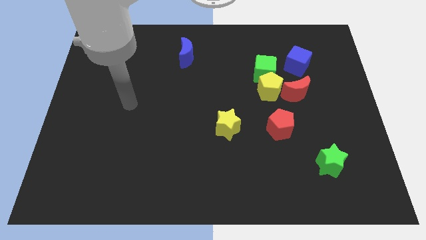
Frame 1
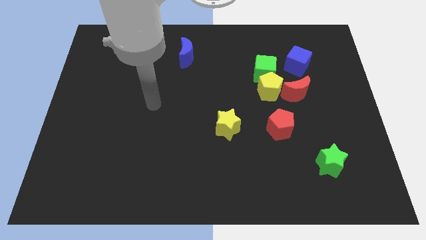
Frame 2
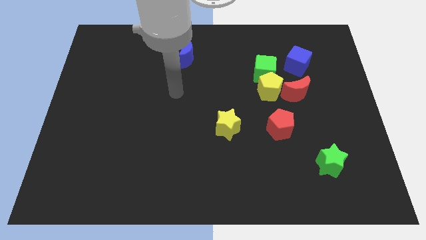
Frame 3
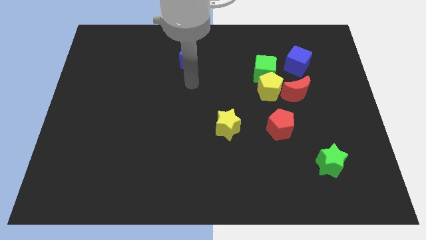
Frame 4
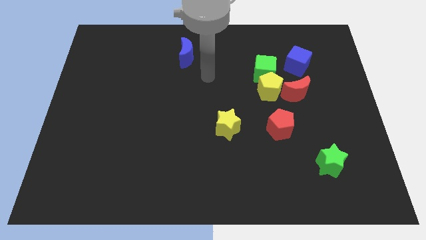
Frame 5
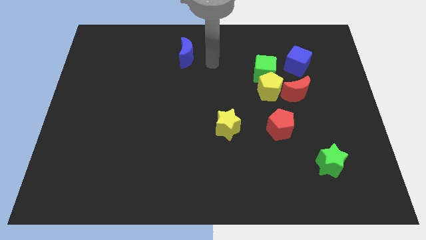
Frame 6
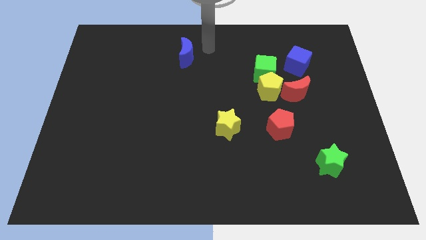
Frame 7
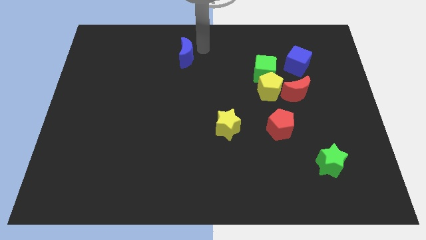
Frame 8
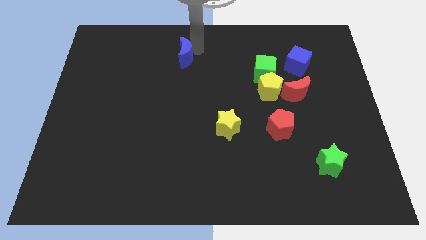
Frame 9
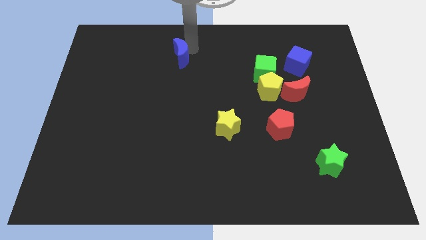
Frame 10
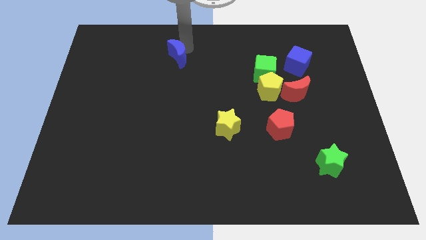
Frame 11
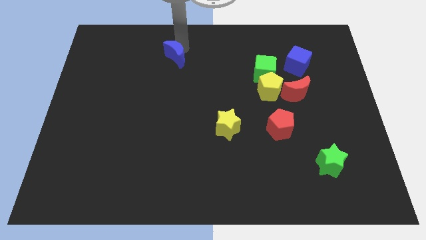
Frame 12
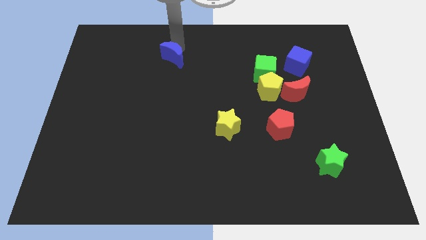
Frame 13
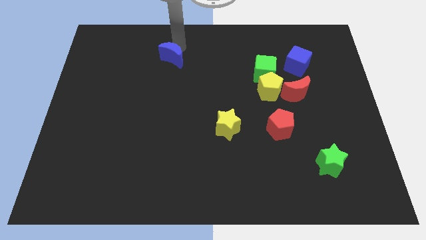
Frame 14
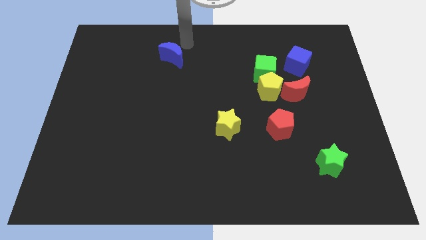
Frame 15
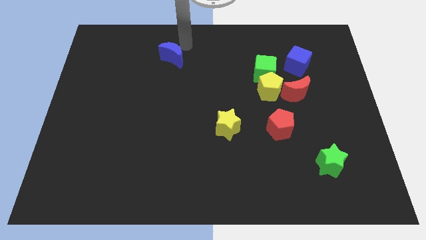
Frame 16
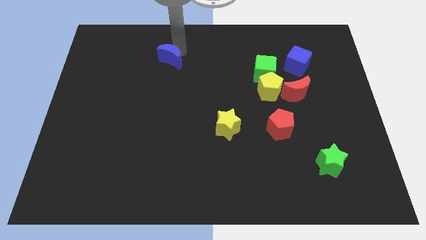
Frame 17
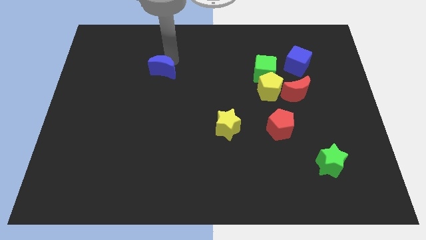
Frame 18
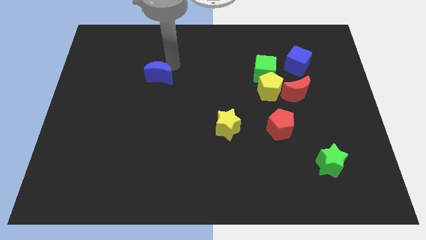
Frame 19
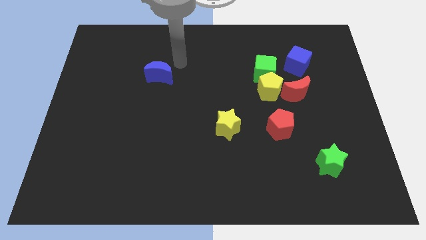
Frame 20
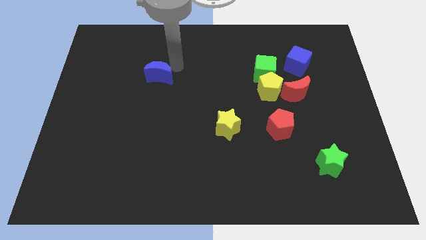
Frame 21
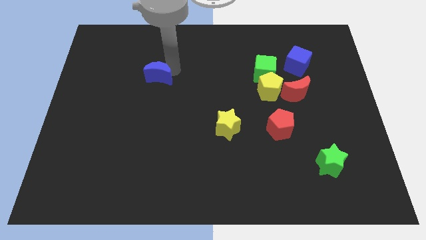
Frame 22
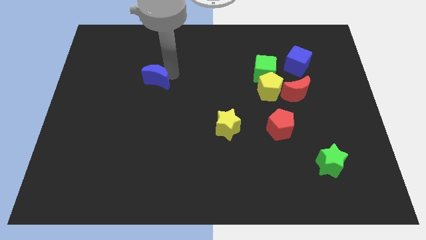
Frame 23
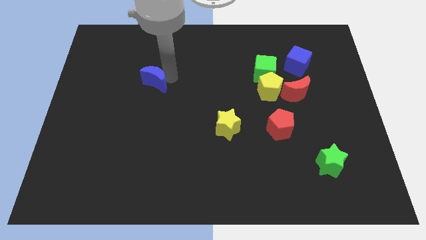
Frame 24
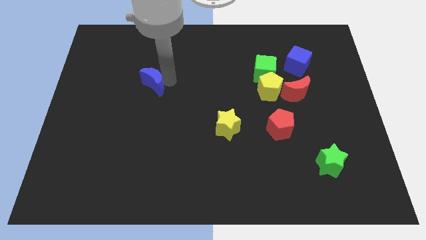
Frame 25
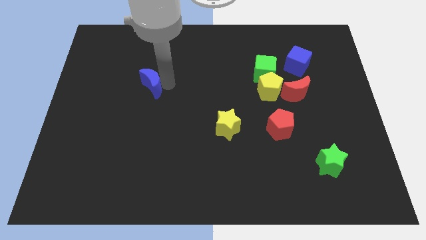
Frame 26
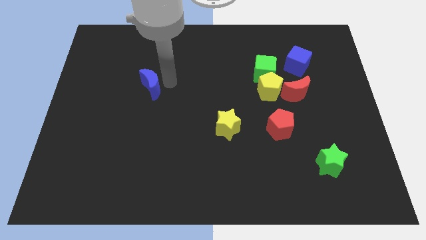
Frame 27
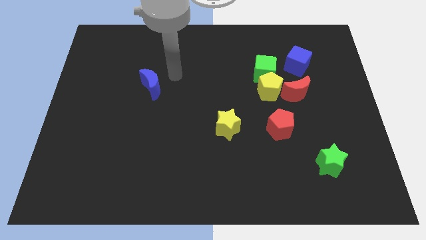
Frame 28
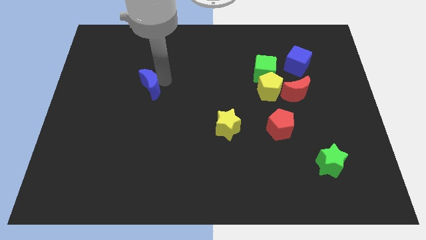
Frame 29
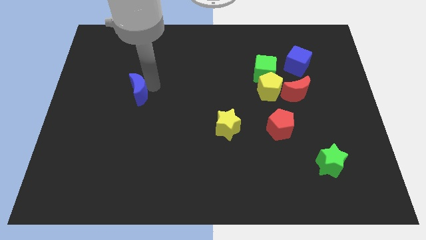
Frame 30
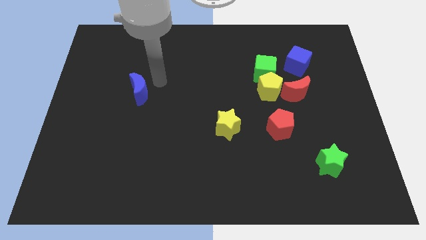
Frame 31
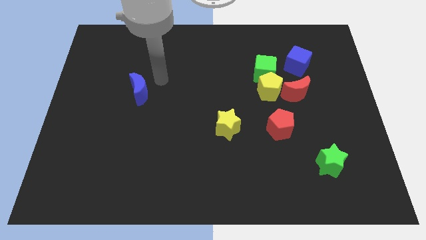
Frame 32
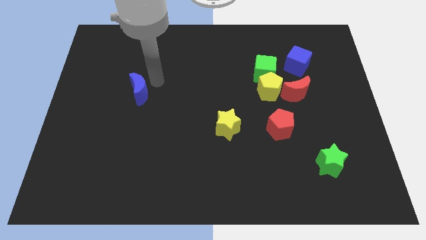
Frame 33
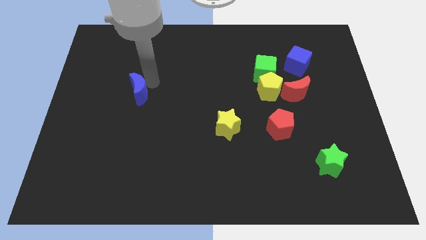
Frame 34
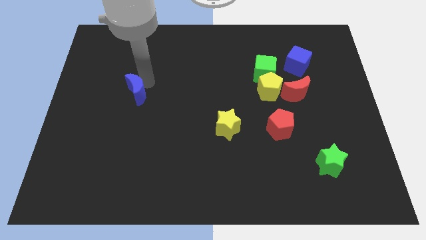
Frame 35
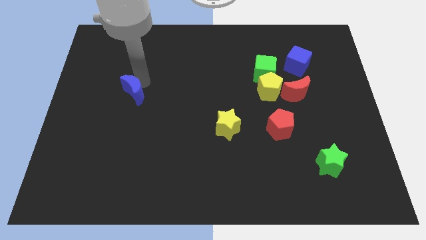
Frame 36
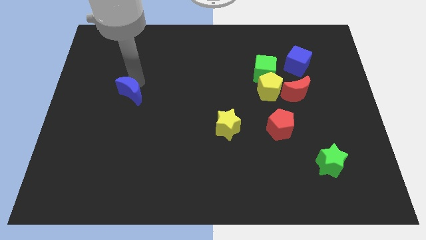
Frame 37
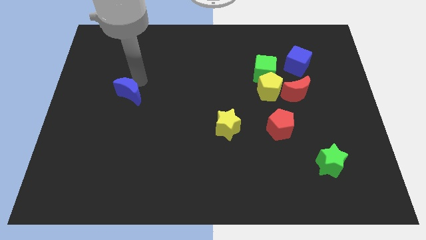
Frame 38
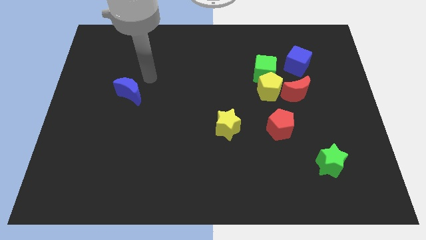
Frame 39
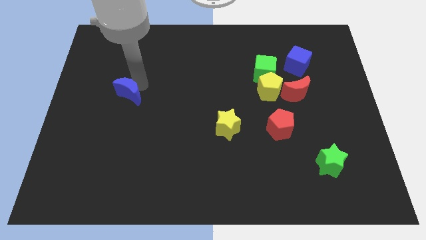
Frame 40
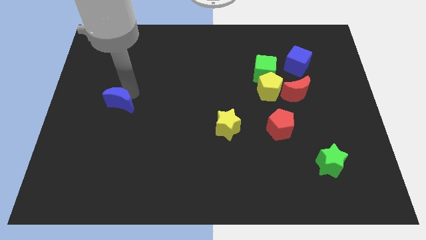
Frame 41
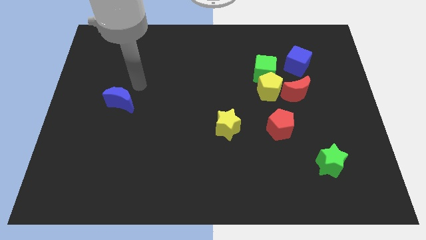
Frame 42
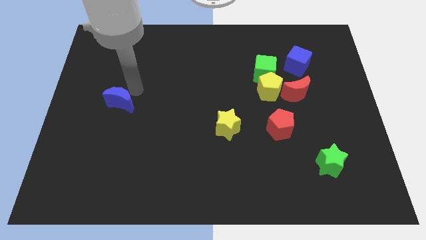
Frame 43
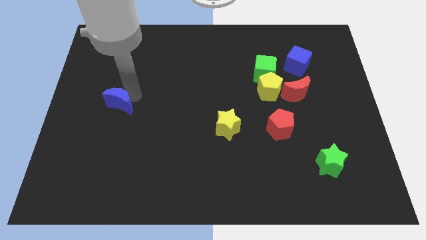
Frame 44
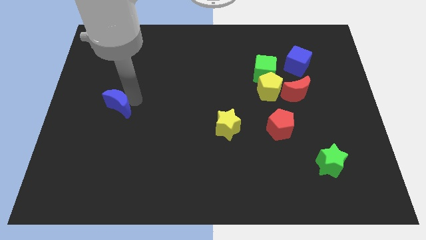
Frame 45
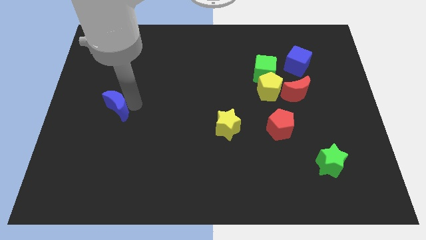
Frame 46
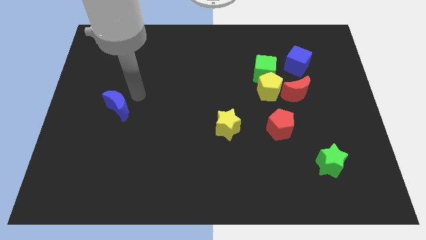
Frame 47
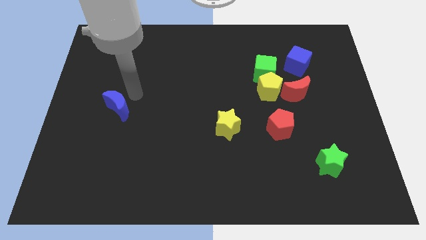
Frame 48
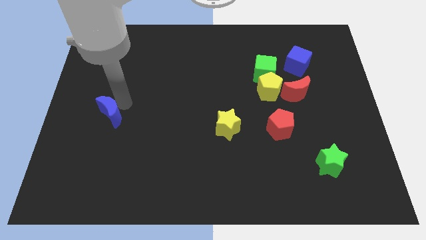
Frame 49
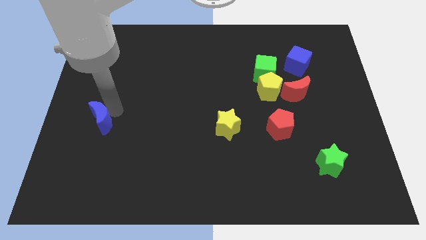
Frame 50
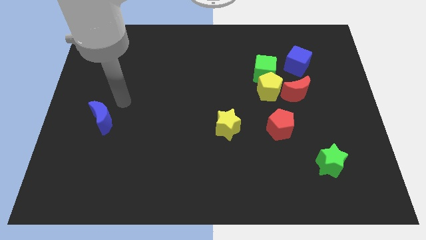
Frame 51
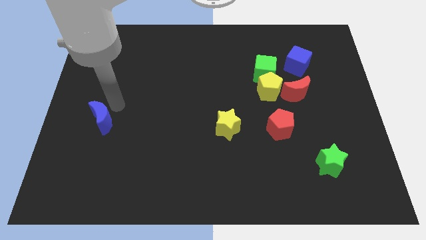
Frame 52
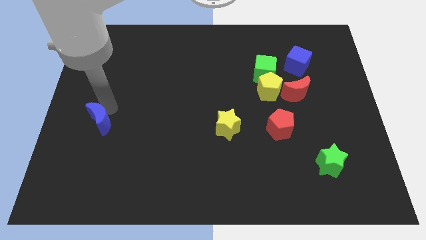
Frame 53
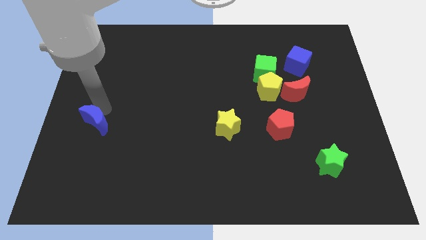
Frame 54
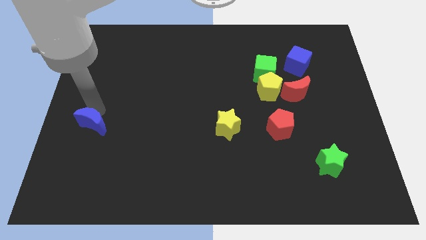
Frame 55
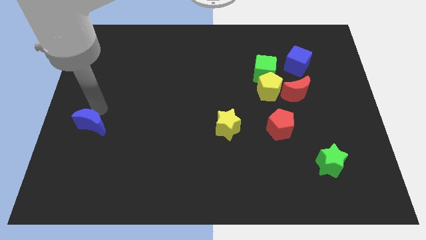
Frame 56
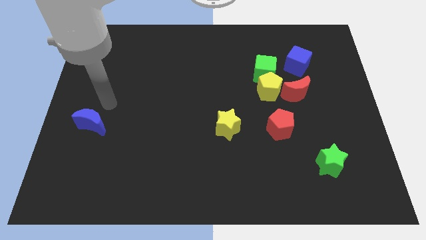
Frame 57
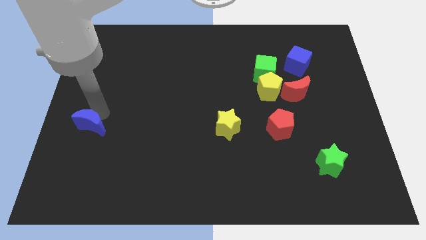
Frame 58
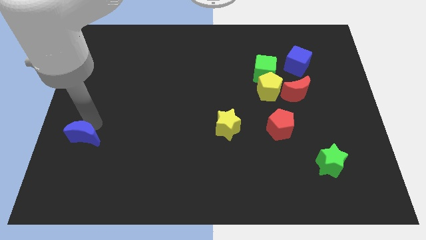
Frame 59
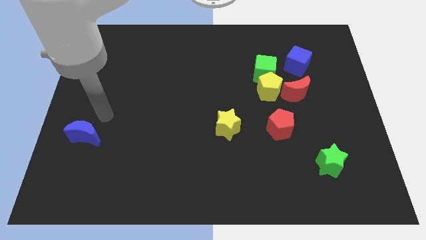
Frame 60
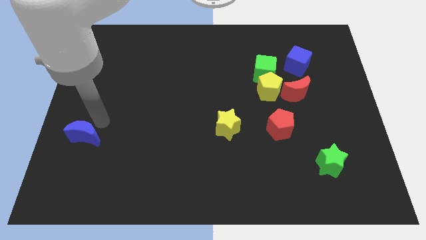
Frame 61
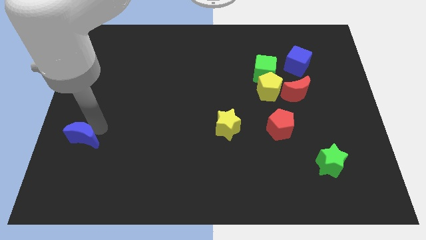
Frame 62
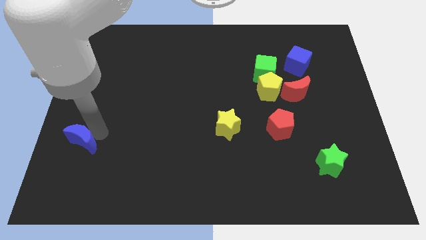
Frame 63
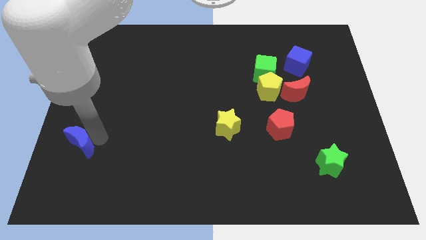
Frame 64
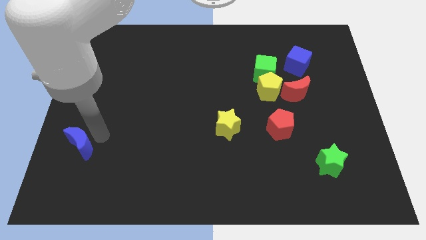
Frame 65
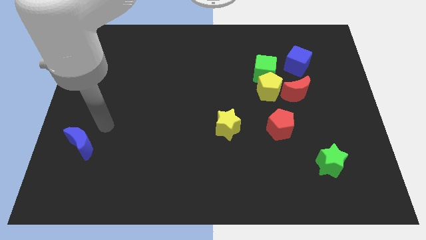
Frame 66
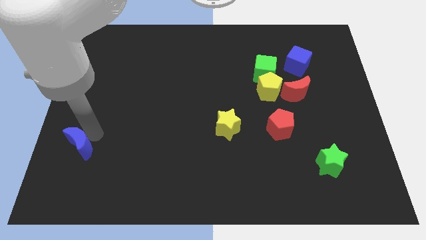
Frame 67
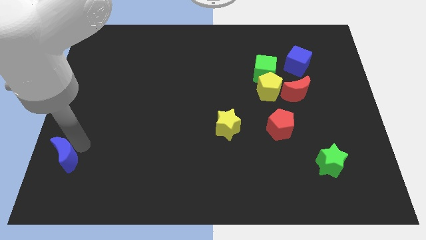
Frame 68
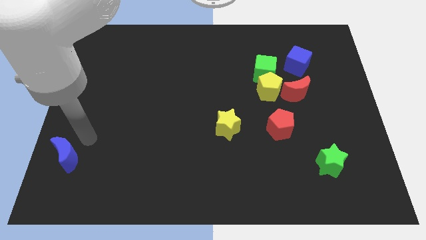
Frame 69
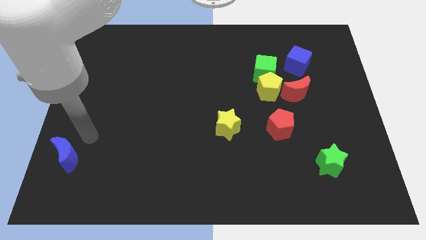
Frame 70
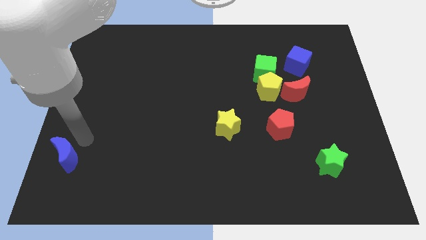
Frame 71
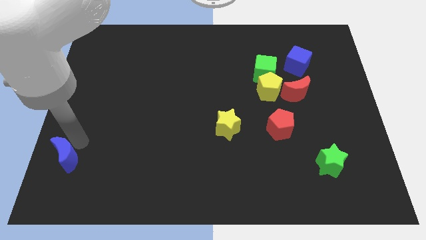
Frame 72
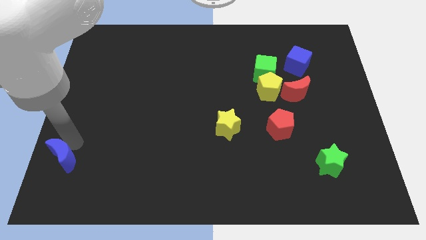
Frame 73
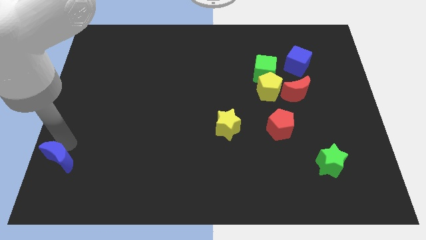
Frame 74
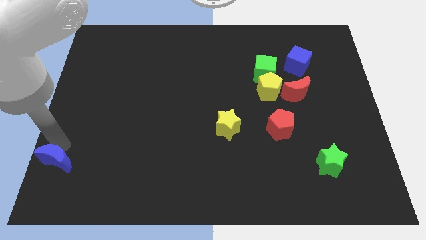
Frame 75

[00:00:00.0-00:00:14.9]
push the blue moon to the bottom left
